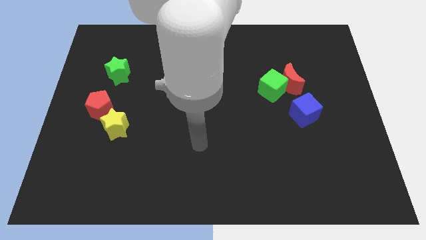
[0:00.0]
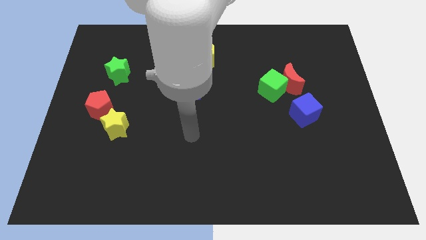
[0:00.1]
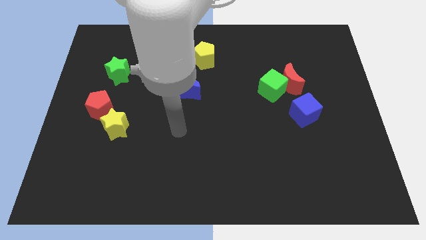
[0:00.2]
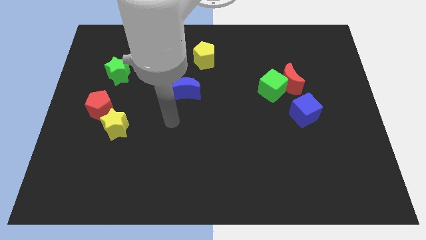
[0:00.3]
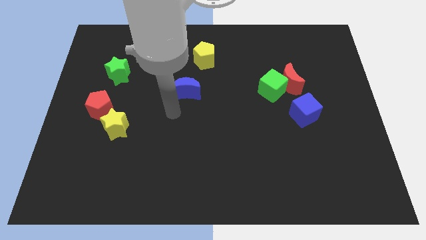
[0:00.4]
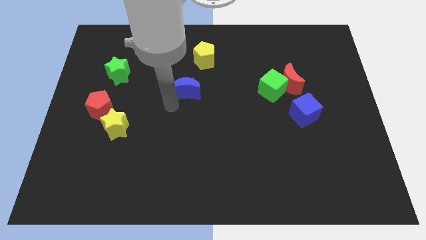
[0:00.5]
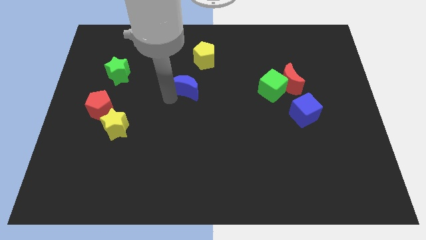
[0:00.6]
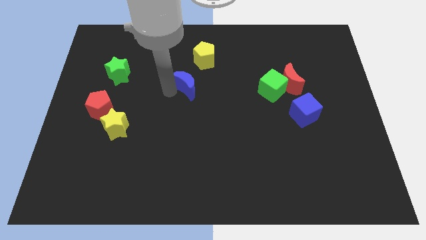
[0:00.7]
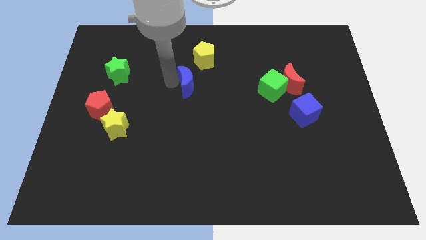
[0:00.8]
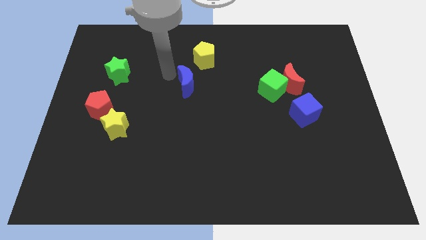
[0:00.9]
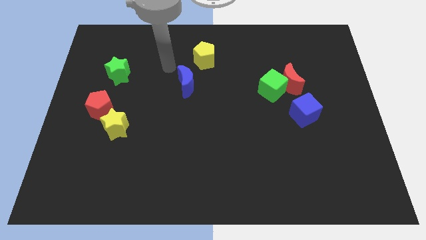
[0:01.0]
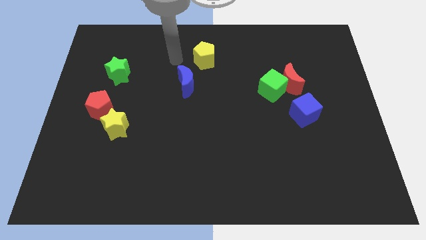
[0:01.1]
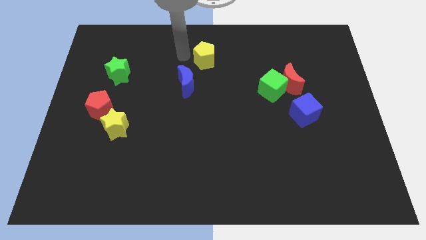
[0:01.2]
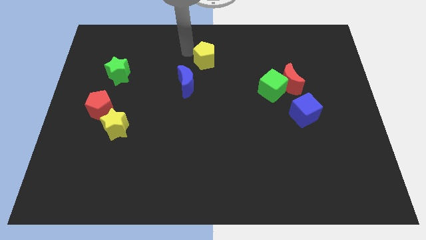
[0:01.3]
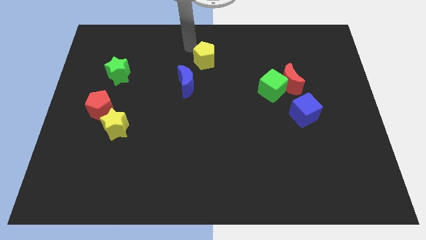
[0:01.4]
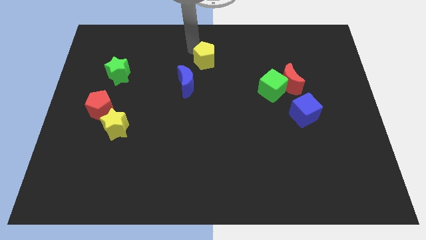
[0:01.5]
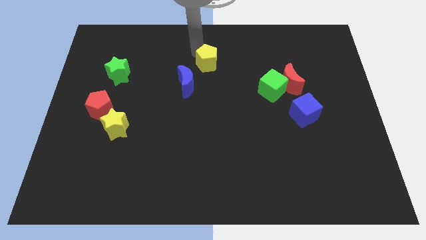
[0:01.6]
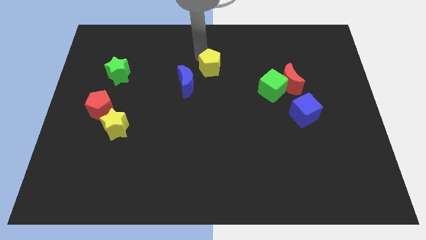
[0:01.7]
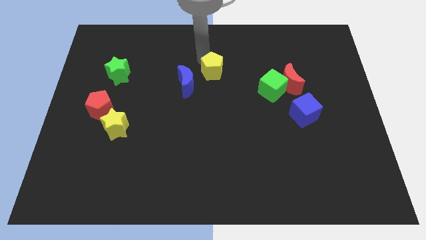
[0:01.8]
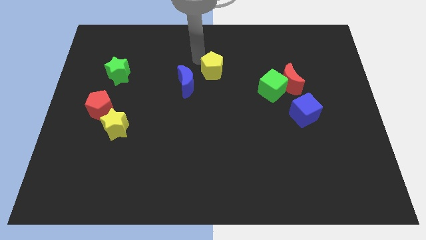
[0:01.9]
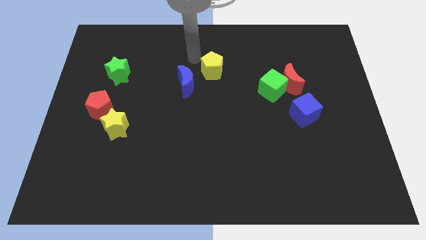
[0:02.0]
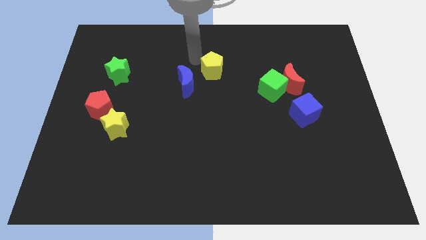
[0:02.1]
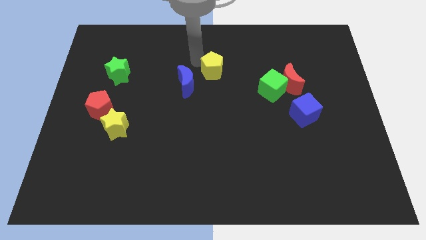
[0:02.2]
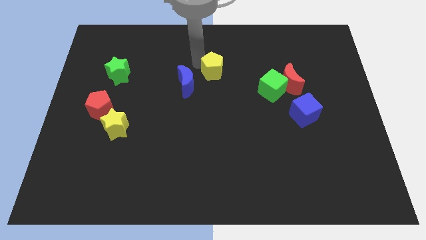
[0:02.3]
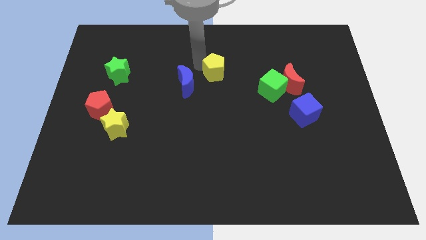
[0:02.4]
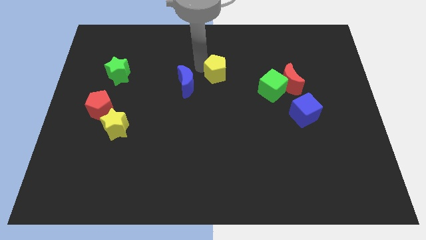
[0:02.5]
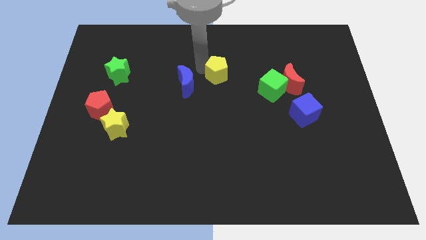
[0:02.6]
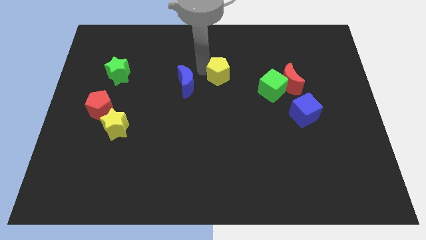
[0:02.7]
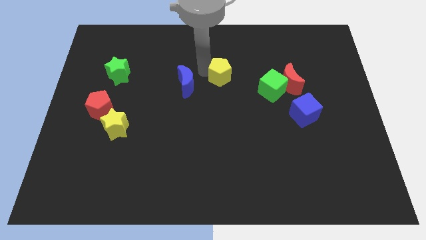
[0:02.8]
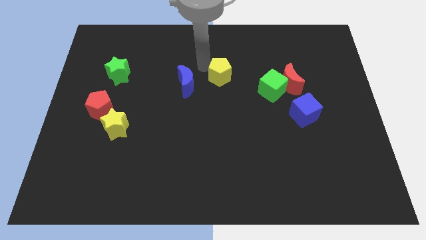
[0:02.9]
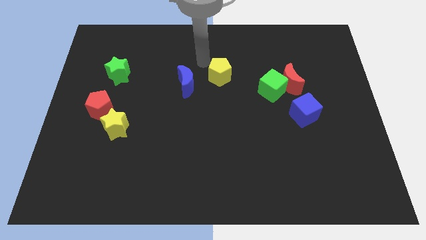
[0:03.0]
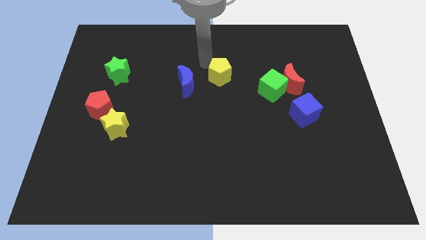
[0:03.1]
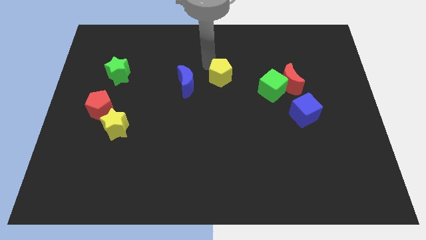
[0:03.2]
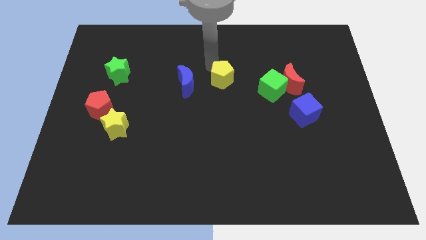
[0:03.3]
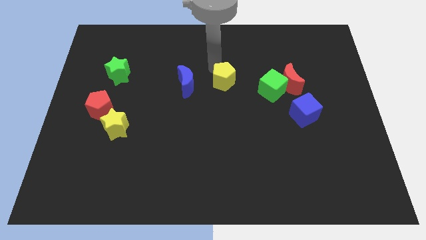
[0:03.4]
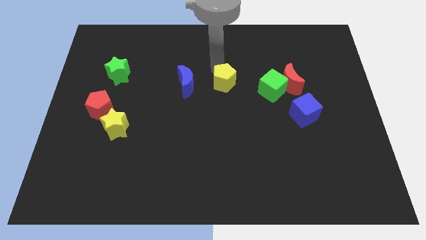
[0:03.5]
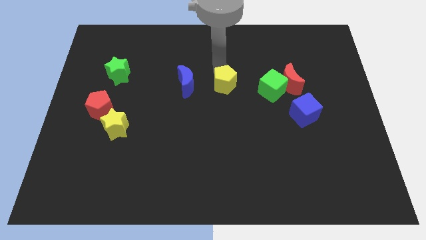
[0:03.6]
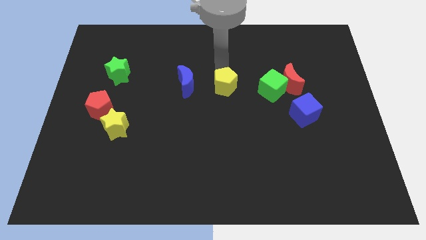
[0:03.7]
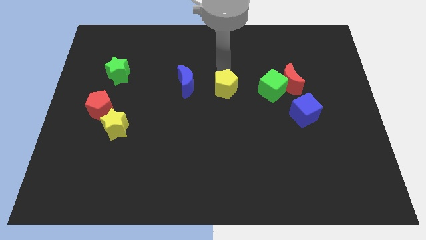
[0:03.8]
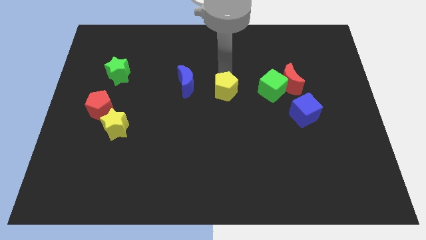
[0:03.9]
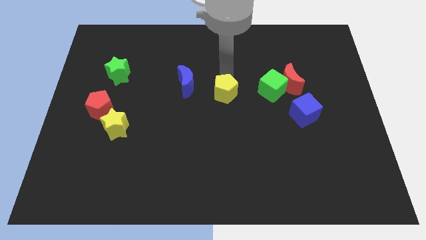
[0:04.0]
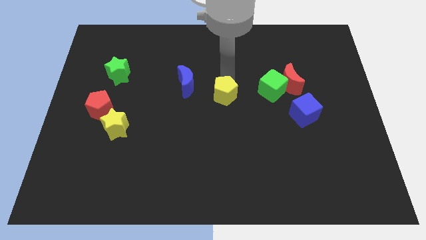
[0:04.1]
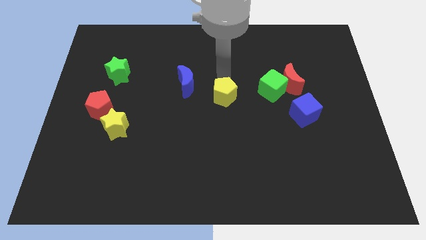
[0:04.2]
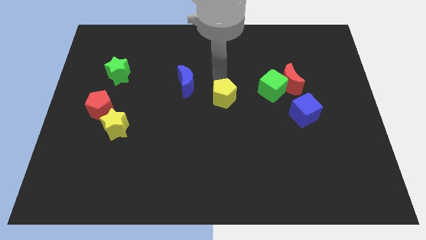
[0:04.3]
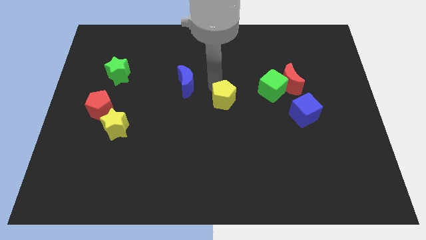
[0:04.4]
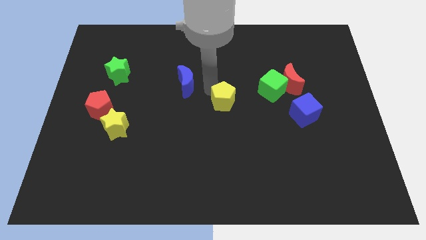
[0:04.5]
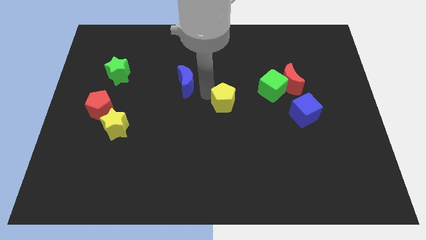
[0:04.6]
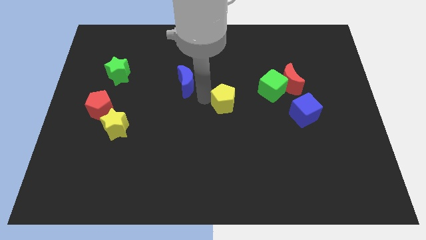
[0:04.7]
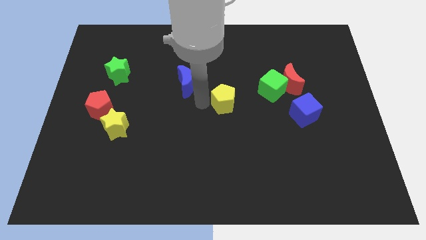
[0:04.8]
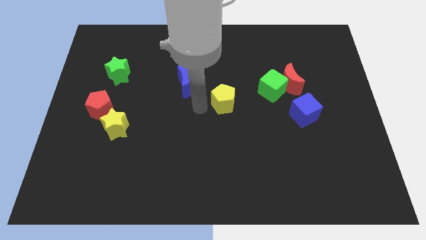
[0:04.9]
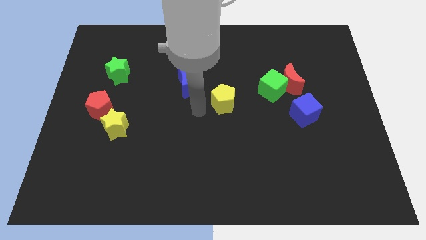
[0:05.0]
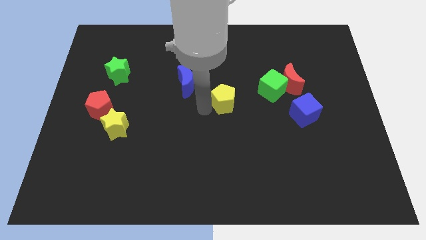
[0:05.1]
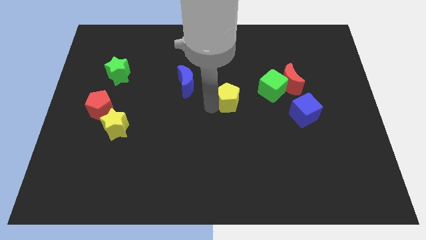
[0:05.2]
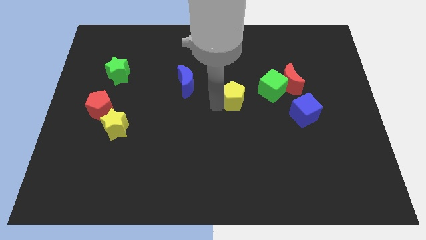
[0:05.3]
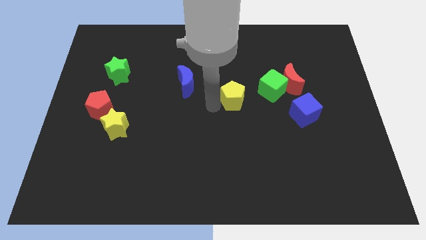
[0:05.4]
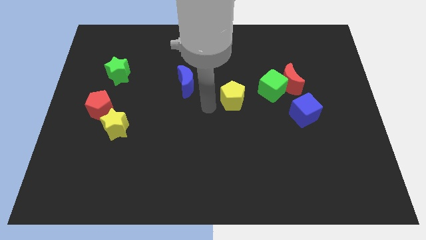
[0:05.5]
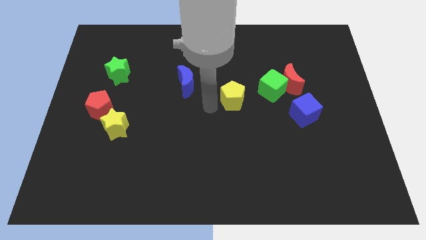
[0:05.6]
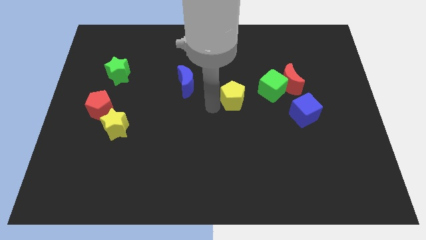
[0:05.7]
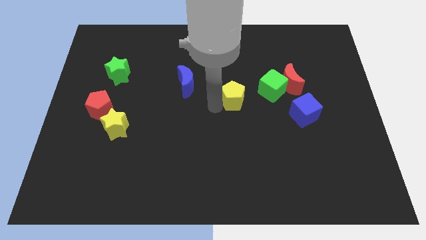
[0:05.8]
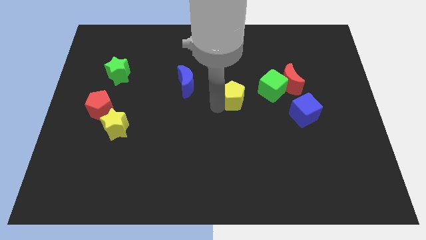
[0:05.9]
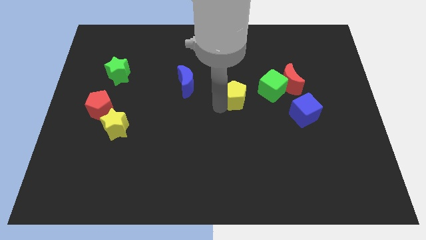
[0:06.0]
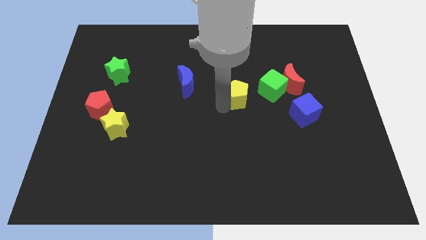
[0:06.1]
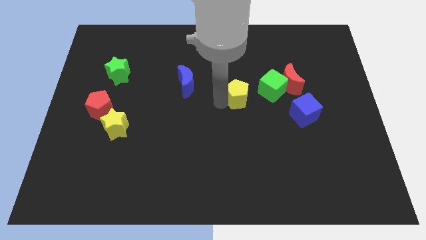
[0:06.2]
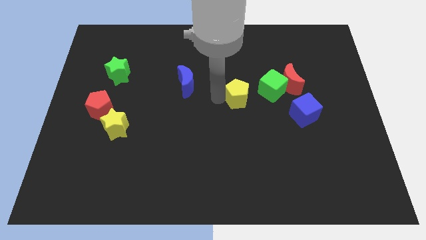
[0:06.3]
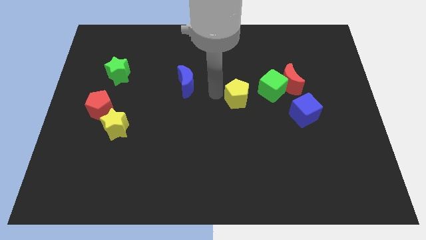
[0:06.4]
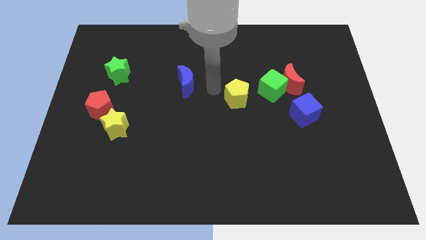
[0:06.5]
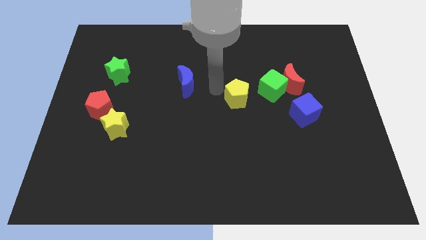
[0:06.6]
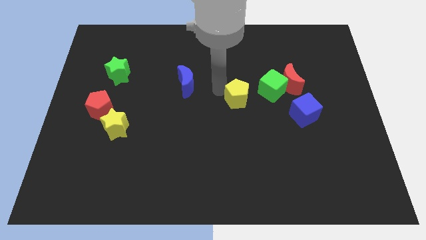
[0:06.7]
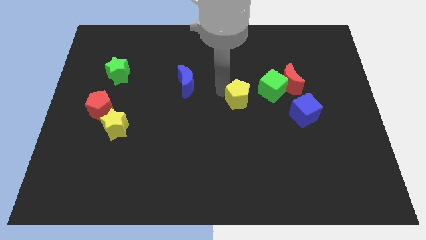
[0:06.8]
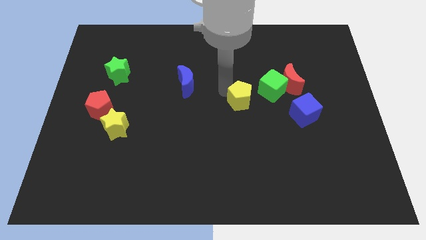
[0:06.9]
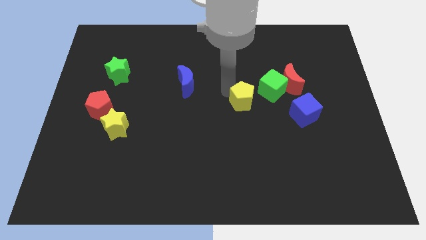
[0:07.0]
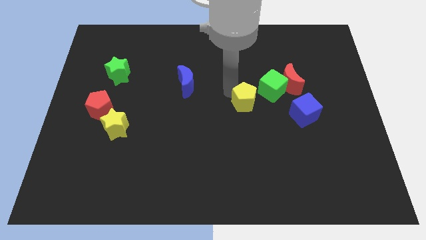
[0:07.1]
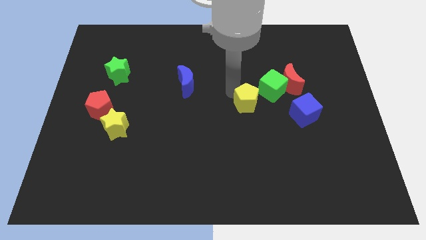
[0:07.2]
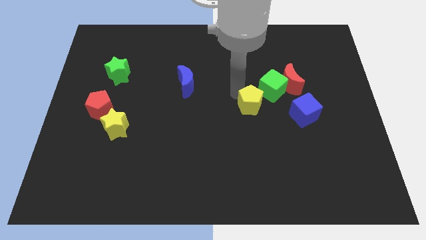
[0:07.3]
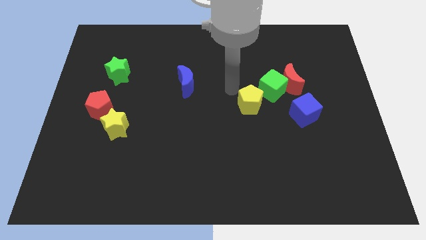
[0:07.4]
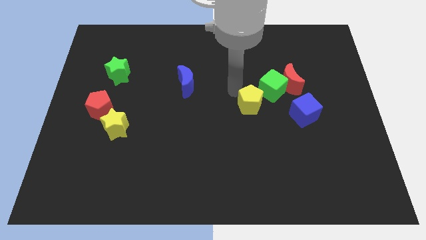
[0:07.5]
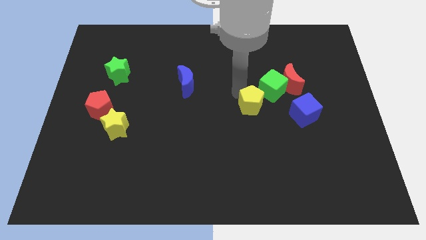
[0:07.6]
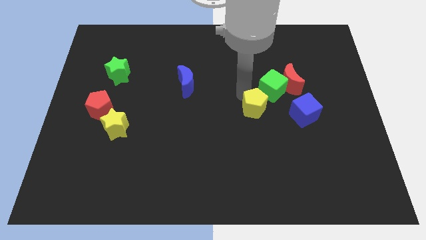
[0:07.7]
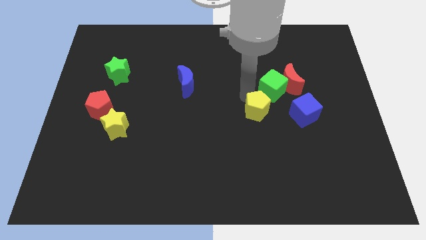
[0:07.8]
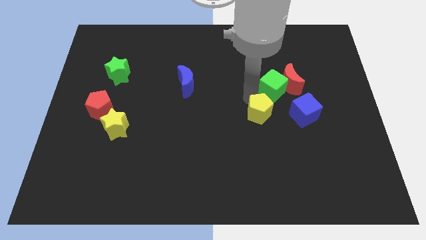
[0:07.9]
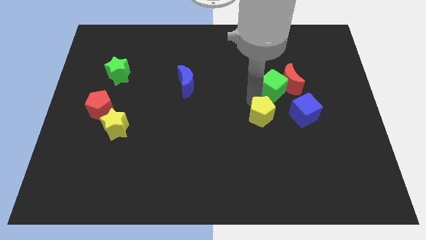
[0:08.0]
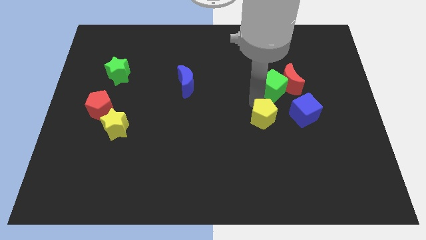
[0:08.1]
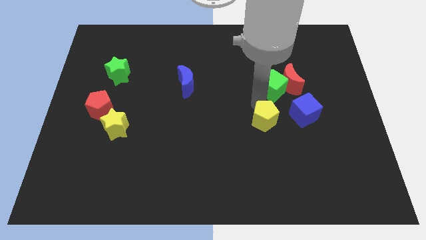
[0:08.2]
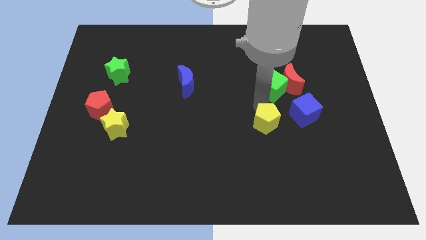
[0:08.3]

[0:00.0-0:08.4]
push the yellow pentagon to the bottom left of the blue cube
